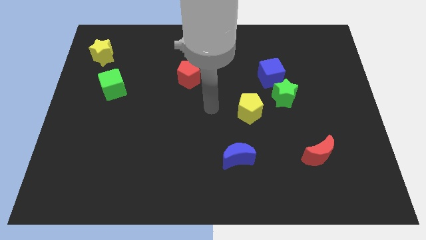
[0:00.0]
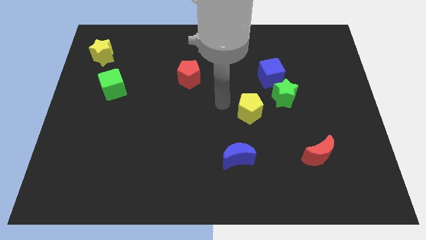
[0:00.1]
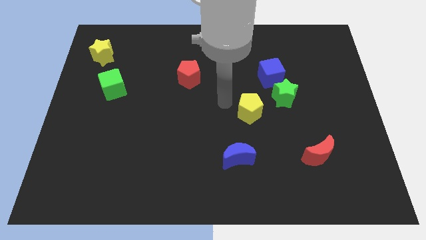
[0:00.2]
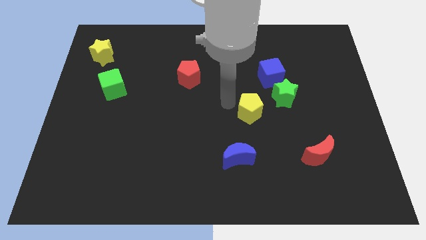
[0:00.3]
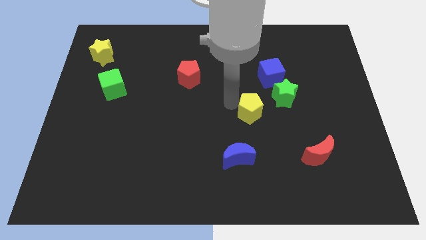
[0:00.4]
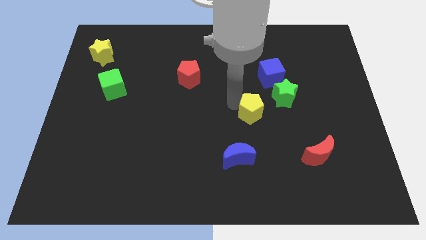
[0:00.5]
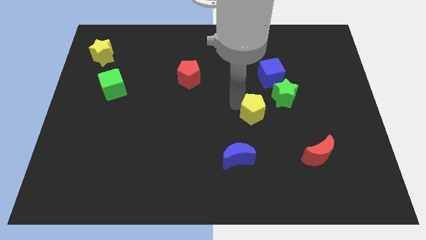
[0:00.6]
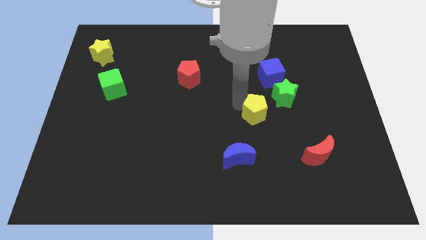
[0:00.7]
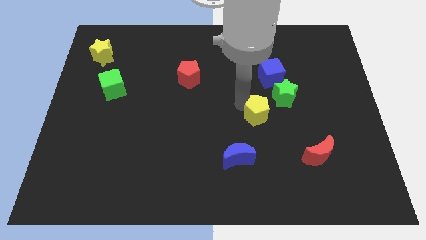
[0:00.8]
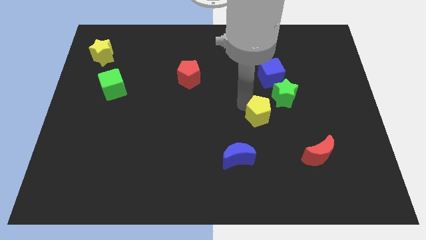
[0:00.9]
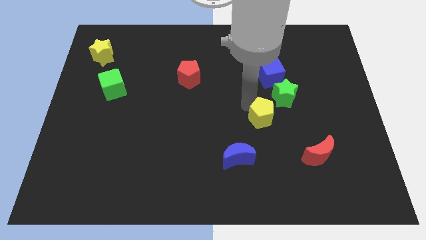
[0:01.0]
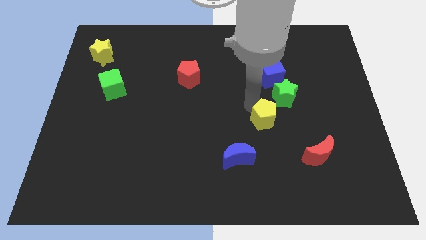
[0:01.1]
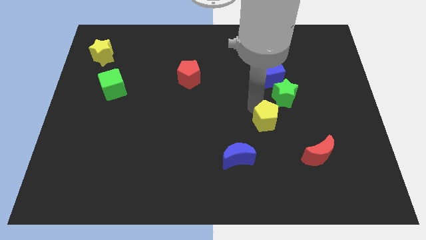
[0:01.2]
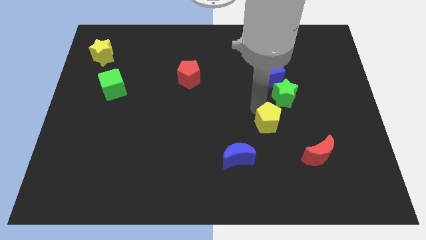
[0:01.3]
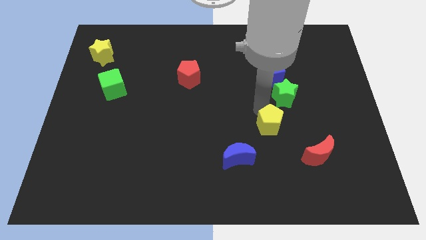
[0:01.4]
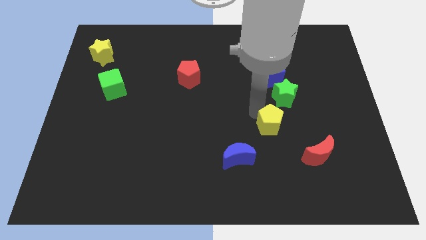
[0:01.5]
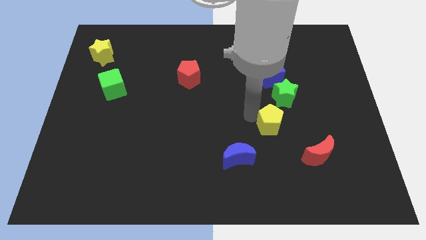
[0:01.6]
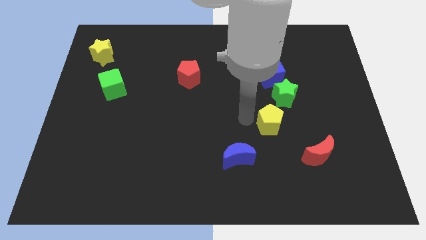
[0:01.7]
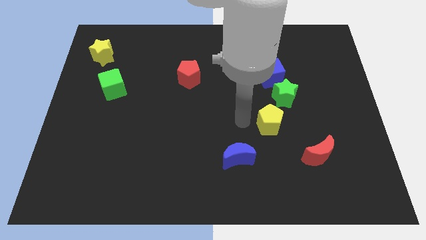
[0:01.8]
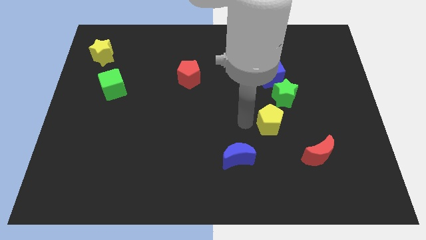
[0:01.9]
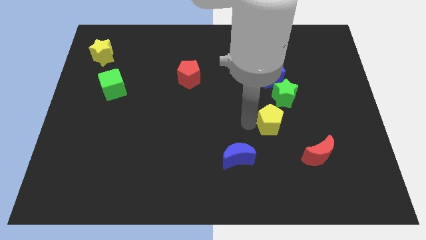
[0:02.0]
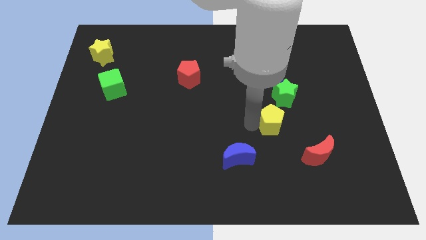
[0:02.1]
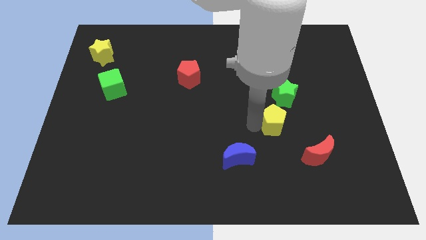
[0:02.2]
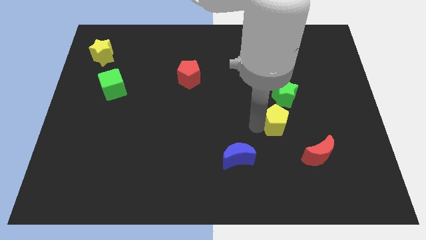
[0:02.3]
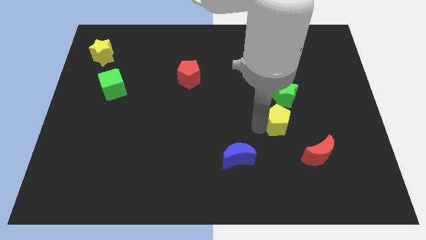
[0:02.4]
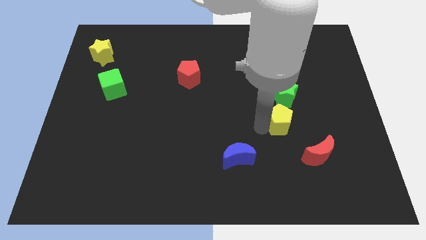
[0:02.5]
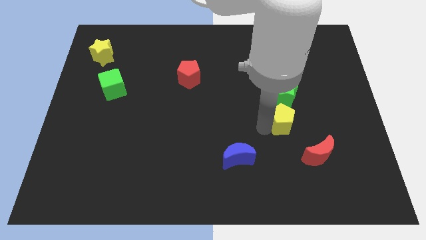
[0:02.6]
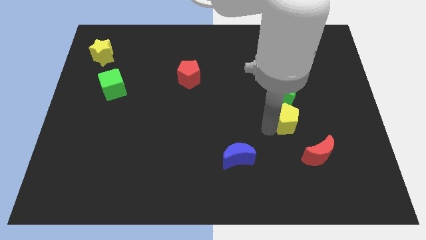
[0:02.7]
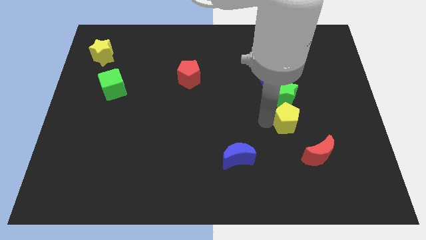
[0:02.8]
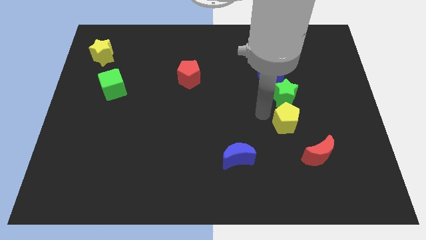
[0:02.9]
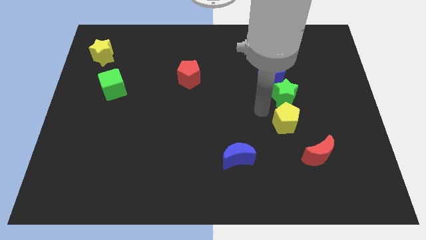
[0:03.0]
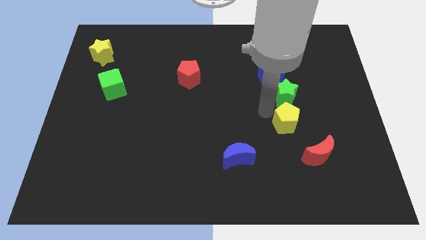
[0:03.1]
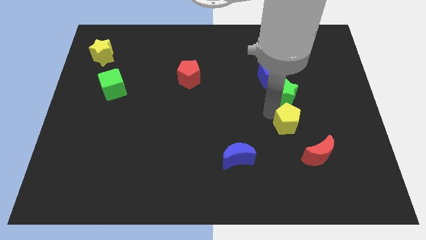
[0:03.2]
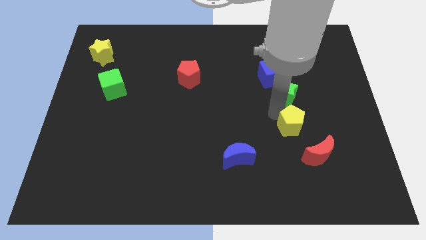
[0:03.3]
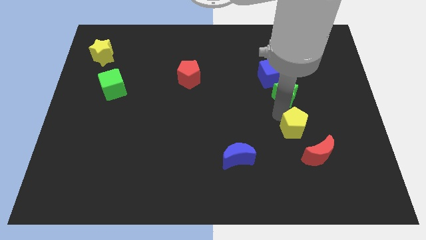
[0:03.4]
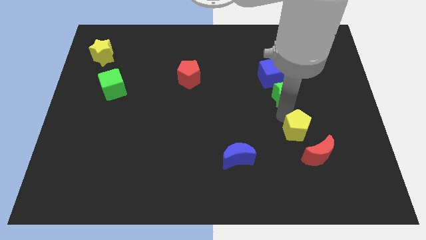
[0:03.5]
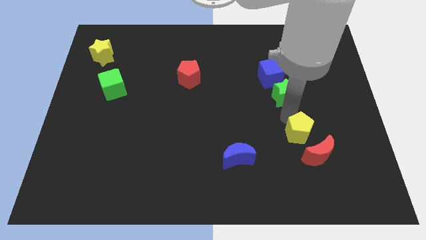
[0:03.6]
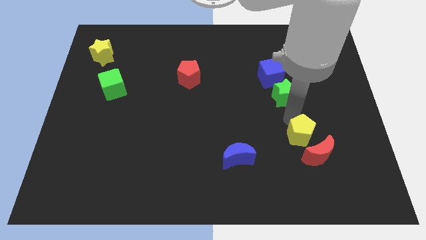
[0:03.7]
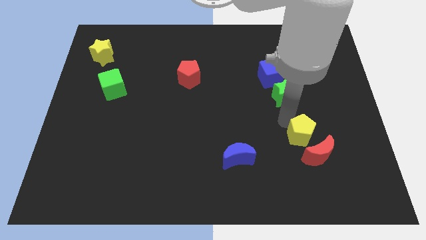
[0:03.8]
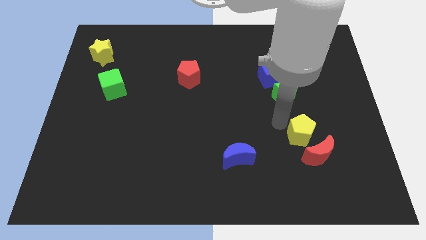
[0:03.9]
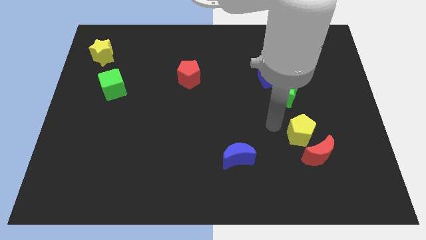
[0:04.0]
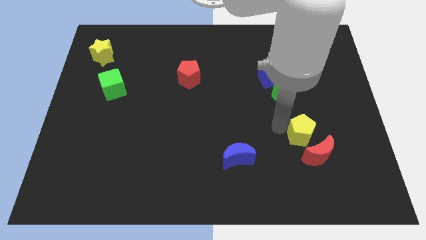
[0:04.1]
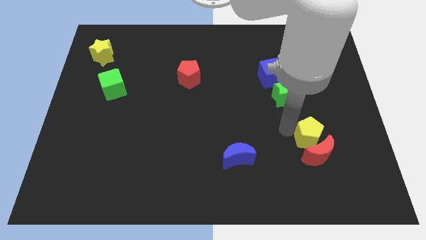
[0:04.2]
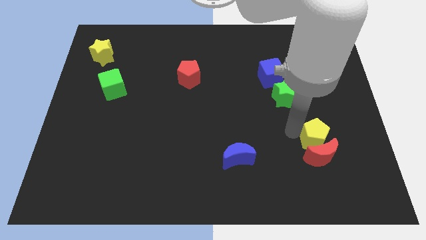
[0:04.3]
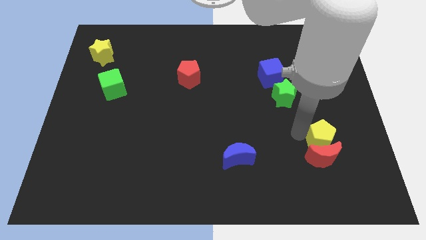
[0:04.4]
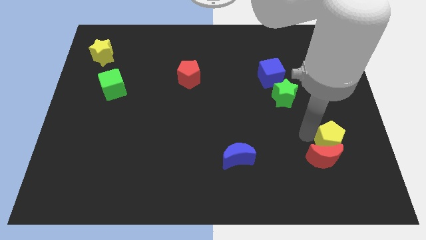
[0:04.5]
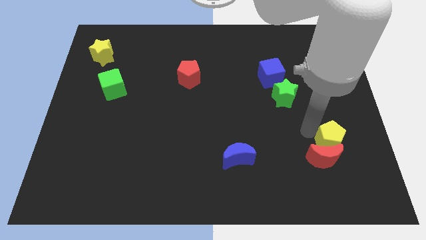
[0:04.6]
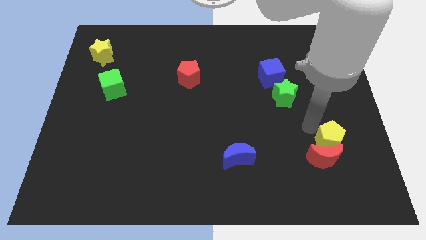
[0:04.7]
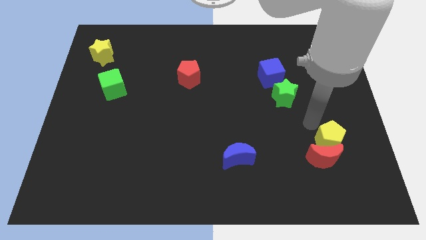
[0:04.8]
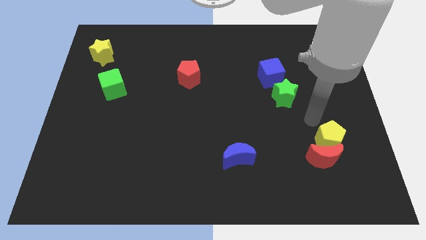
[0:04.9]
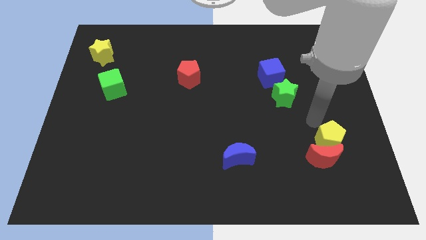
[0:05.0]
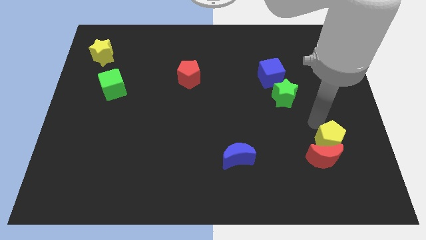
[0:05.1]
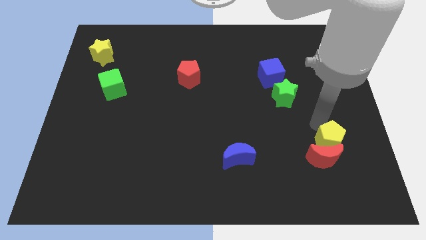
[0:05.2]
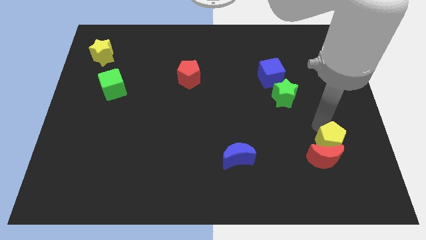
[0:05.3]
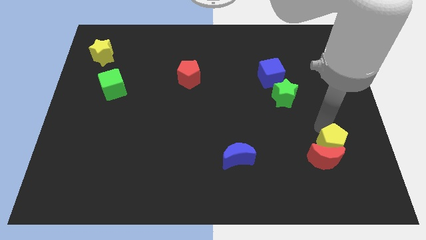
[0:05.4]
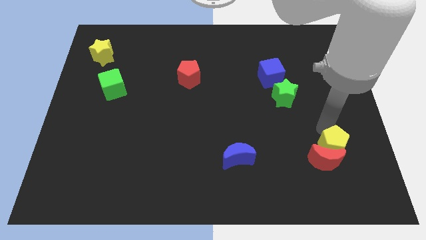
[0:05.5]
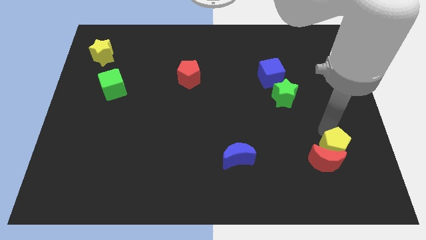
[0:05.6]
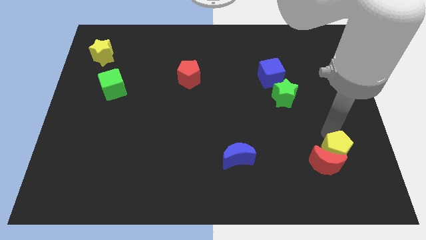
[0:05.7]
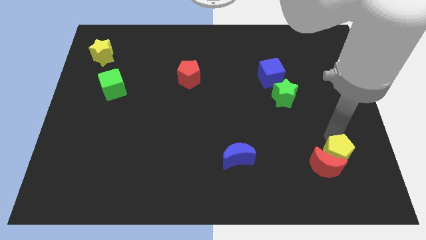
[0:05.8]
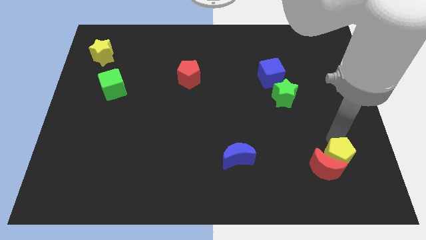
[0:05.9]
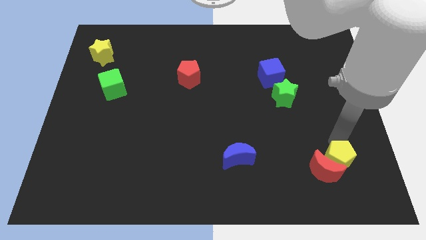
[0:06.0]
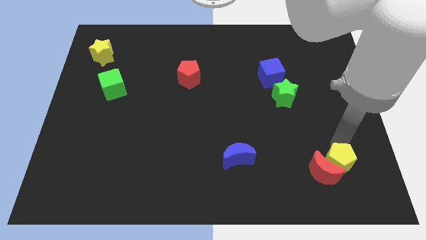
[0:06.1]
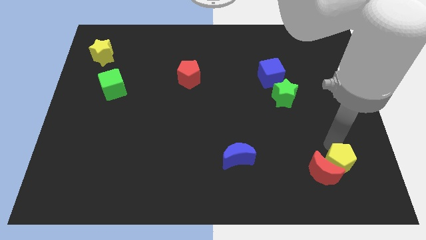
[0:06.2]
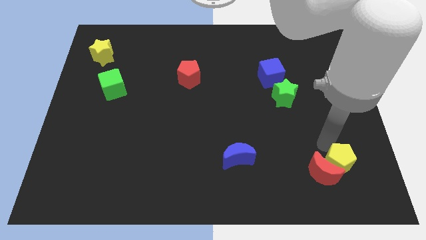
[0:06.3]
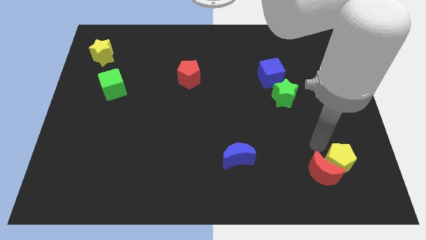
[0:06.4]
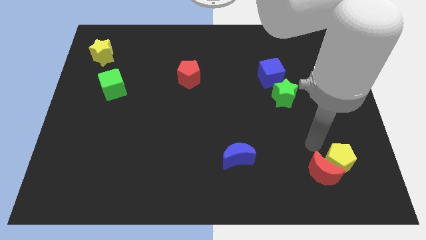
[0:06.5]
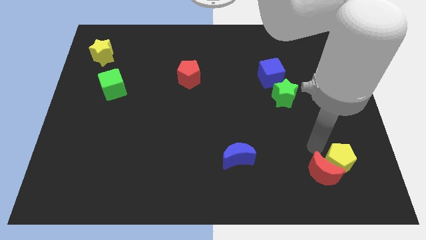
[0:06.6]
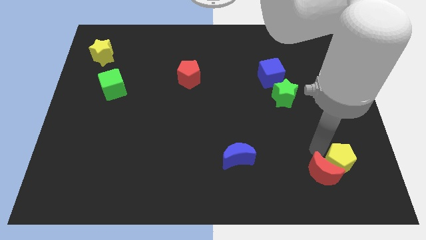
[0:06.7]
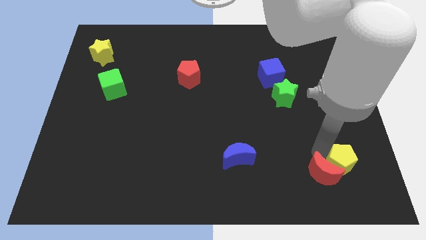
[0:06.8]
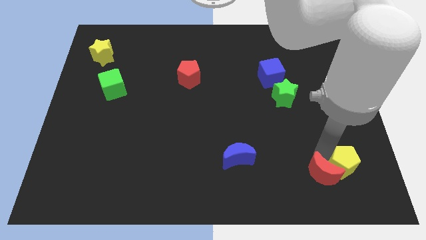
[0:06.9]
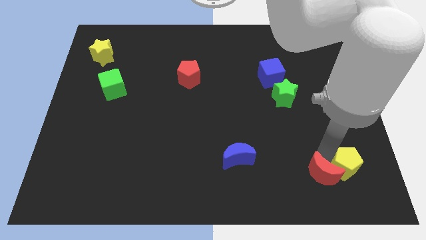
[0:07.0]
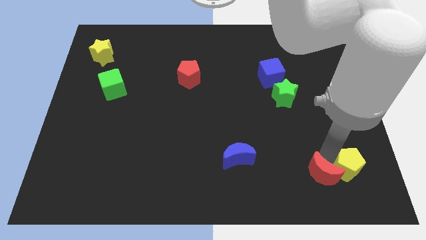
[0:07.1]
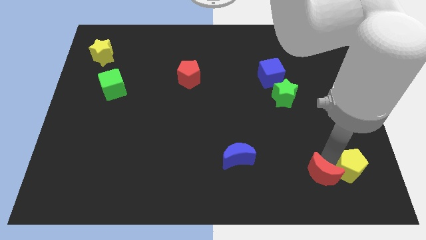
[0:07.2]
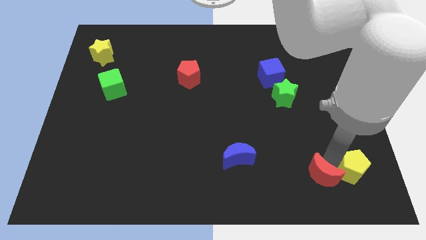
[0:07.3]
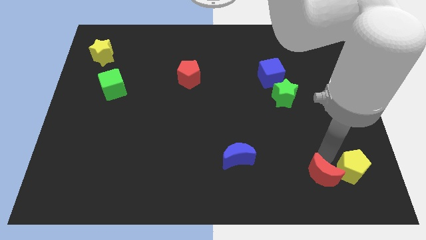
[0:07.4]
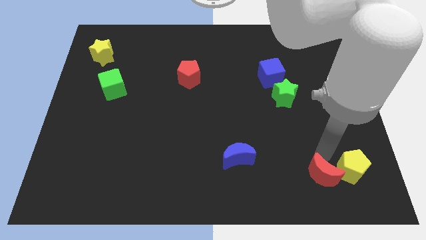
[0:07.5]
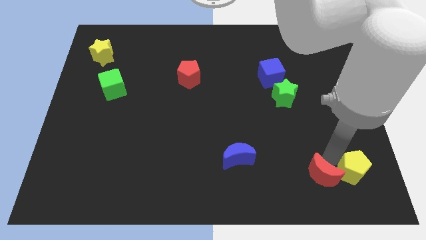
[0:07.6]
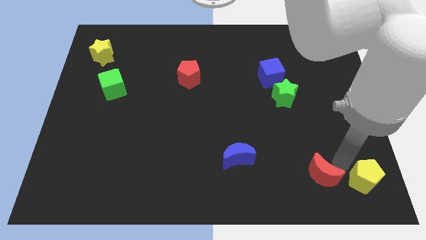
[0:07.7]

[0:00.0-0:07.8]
slide the yellow pentagon to the bottom right corner
